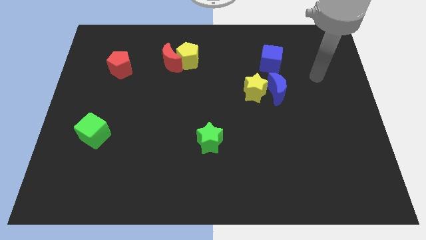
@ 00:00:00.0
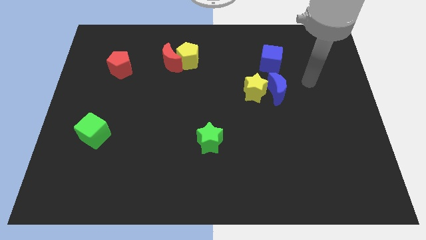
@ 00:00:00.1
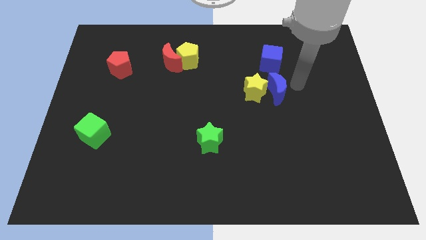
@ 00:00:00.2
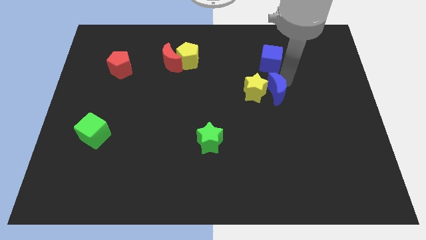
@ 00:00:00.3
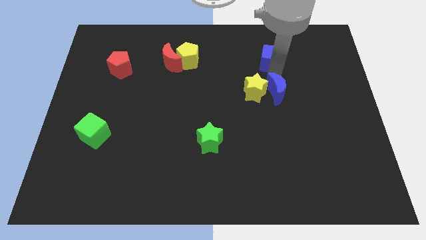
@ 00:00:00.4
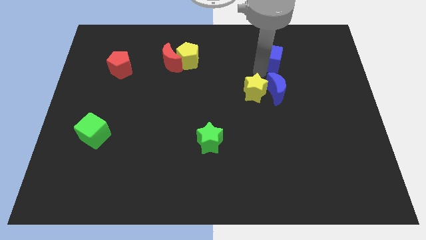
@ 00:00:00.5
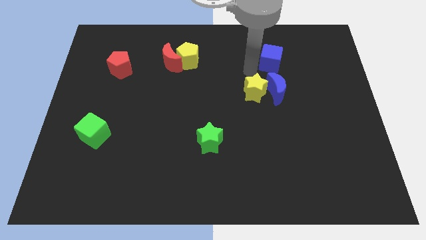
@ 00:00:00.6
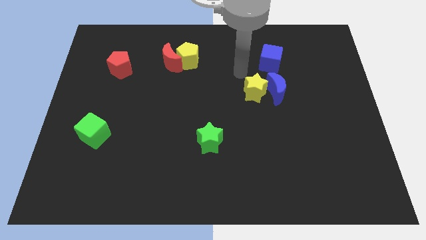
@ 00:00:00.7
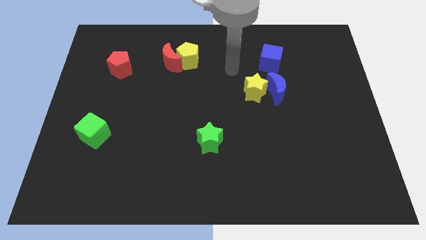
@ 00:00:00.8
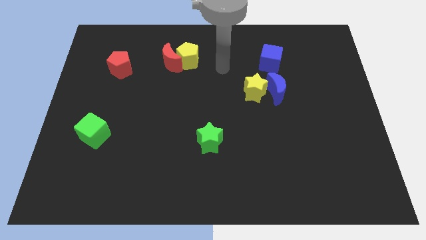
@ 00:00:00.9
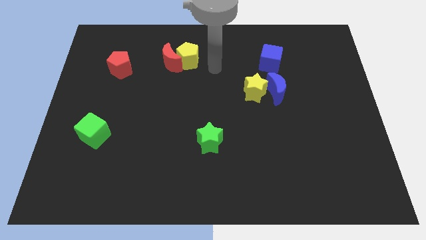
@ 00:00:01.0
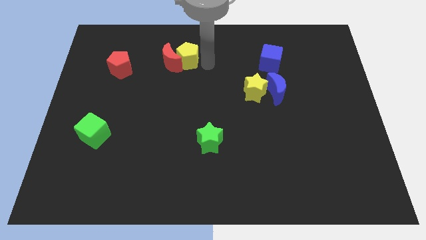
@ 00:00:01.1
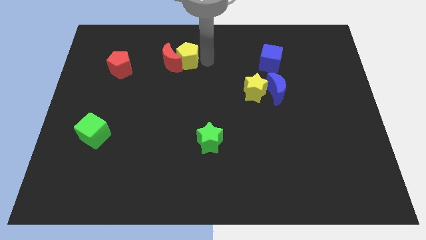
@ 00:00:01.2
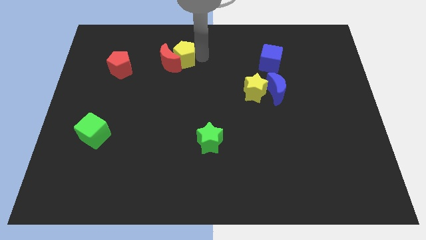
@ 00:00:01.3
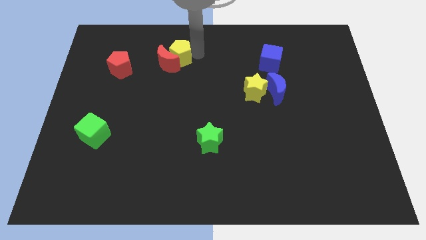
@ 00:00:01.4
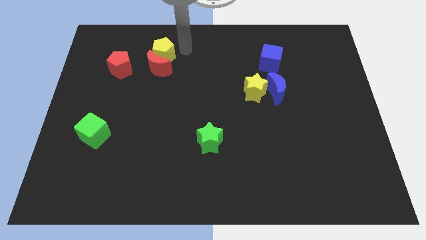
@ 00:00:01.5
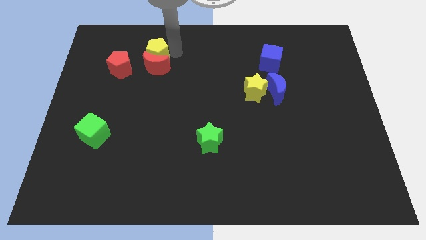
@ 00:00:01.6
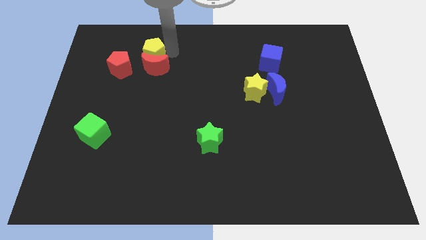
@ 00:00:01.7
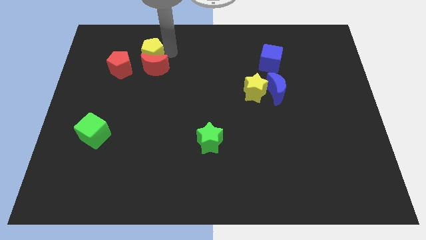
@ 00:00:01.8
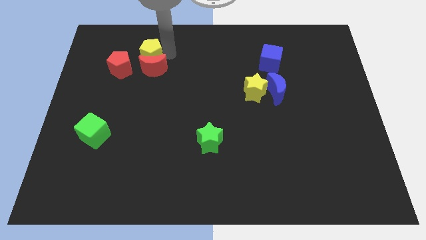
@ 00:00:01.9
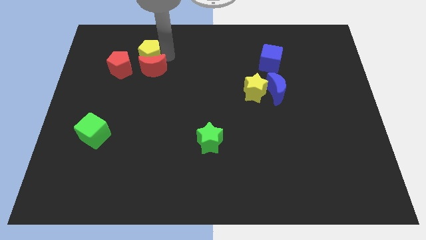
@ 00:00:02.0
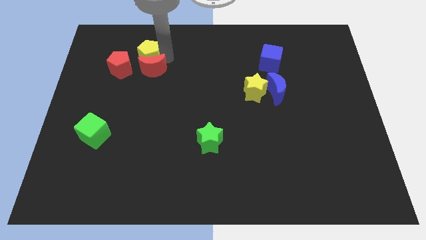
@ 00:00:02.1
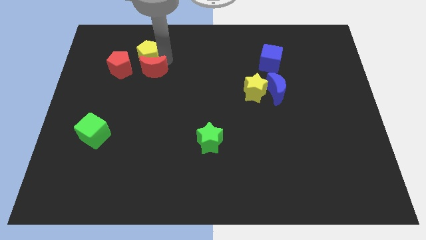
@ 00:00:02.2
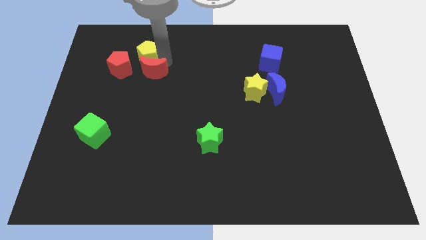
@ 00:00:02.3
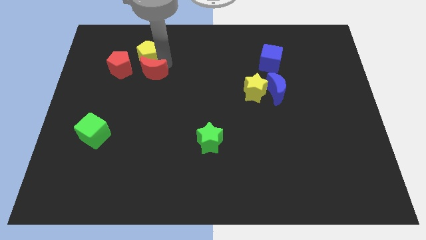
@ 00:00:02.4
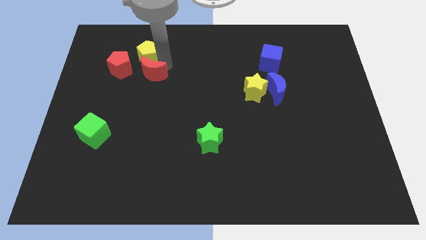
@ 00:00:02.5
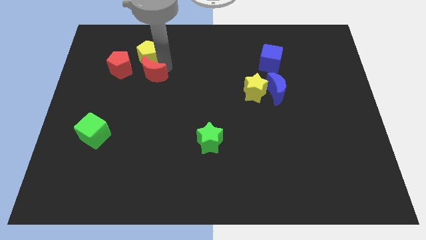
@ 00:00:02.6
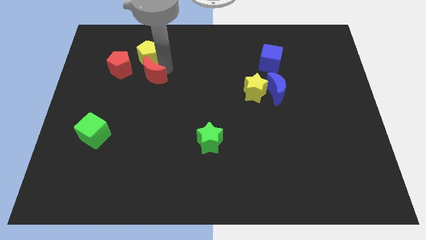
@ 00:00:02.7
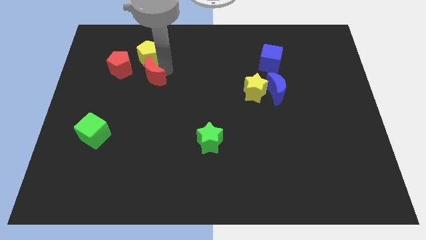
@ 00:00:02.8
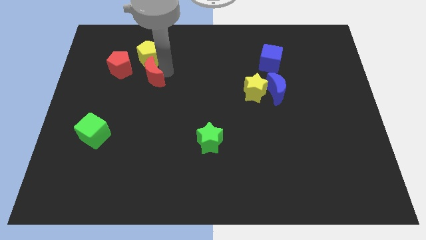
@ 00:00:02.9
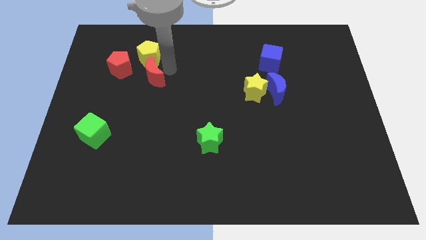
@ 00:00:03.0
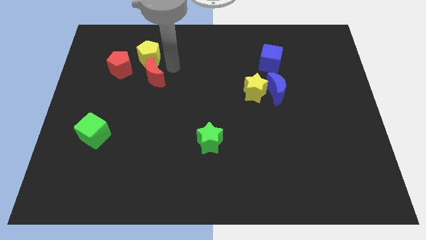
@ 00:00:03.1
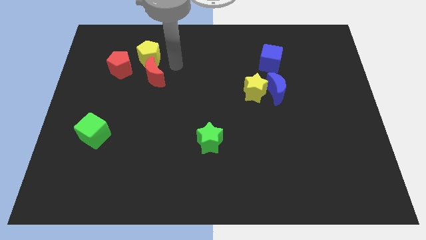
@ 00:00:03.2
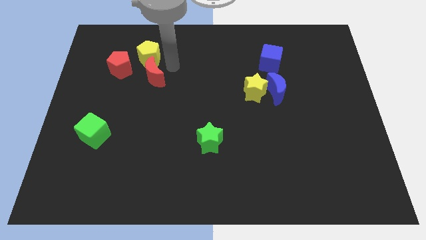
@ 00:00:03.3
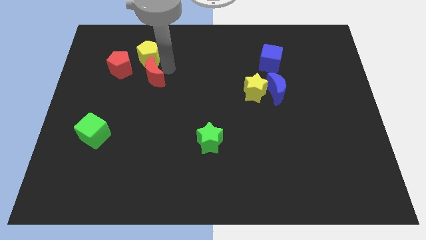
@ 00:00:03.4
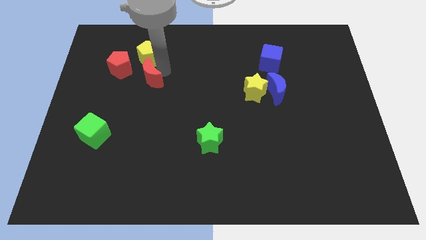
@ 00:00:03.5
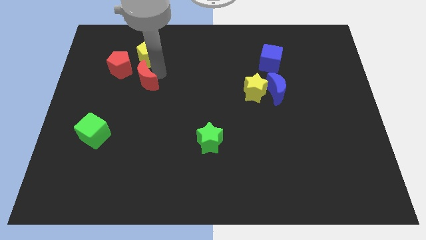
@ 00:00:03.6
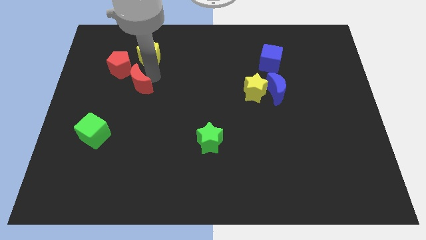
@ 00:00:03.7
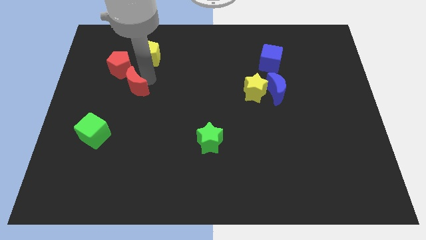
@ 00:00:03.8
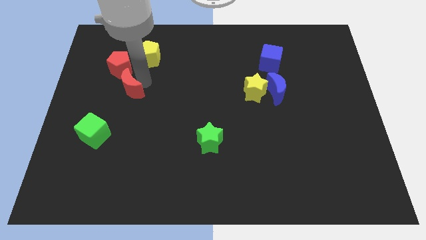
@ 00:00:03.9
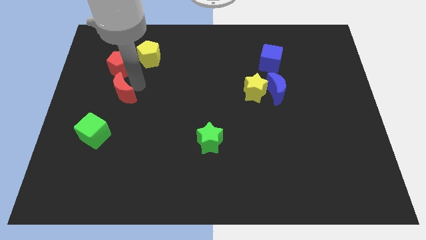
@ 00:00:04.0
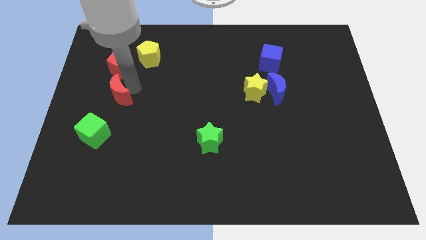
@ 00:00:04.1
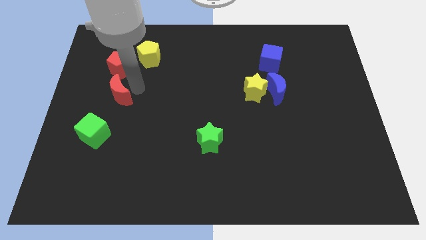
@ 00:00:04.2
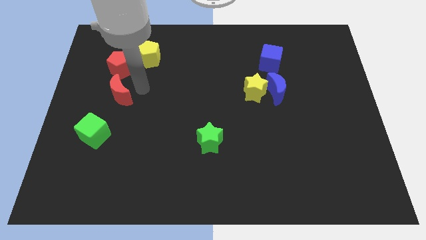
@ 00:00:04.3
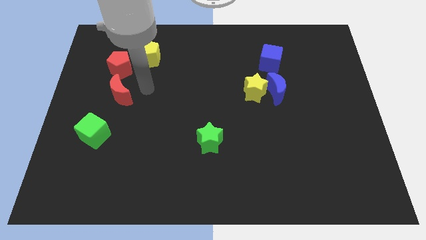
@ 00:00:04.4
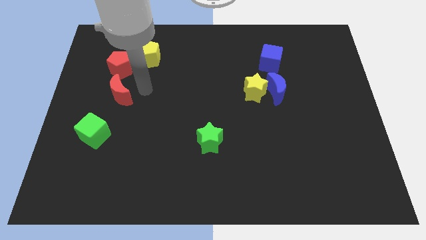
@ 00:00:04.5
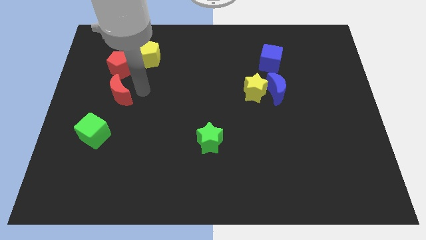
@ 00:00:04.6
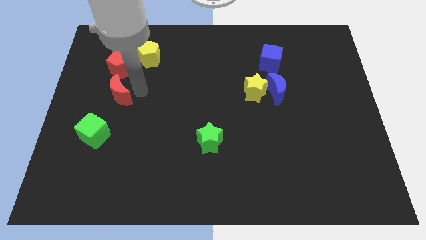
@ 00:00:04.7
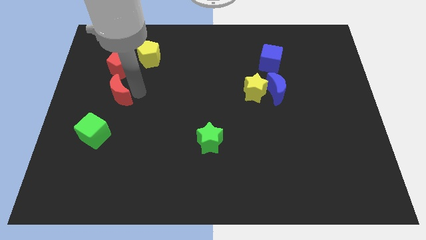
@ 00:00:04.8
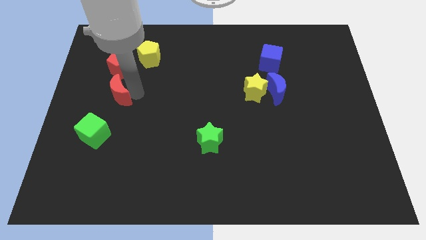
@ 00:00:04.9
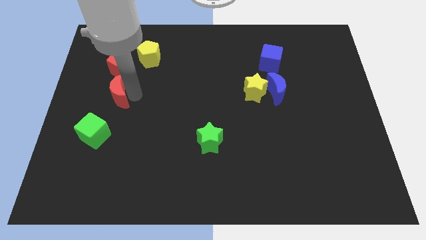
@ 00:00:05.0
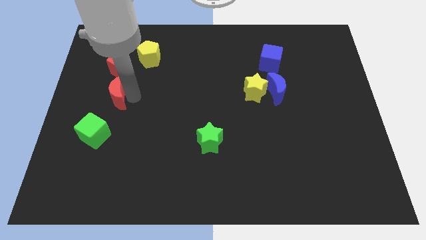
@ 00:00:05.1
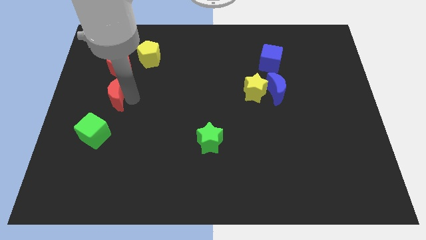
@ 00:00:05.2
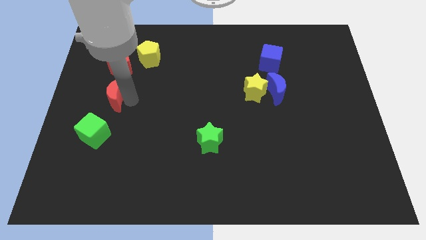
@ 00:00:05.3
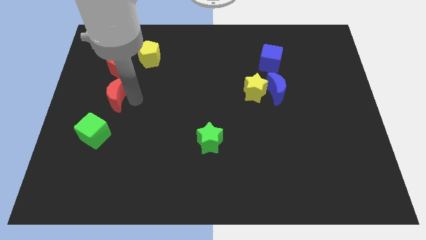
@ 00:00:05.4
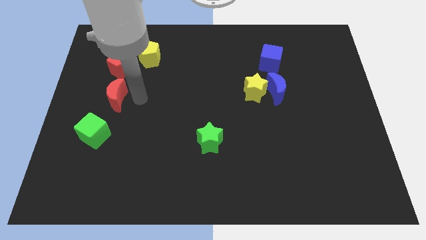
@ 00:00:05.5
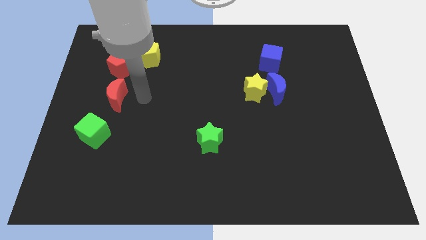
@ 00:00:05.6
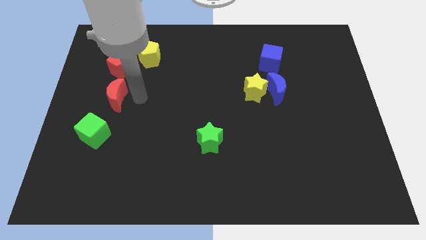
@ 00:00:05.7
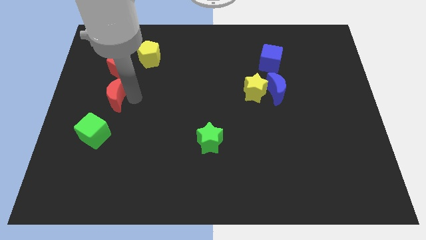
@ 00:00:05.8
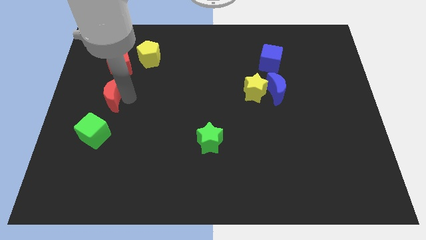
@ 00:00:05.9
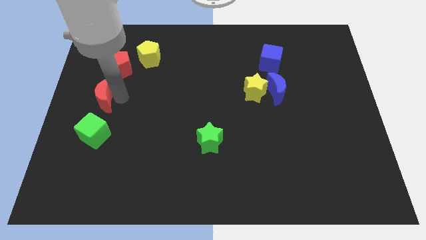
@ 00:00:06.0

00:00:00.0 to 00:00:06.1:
push the red moon to the left side of the board

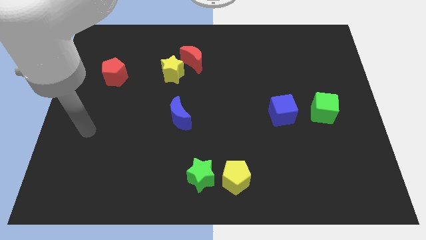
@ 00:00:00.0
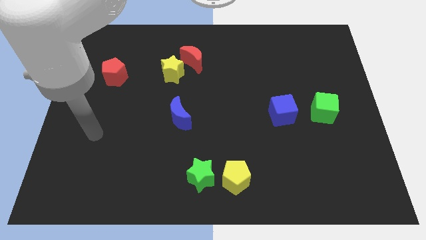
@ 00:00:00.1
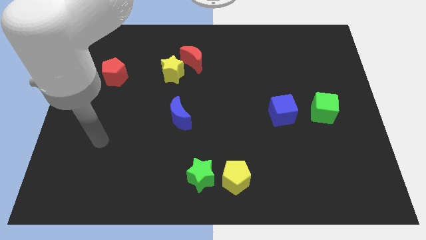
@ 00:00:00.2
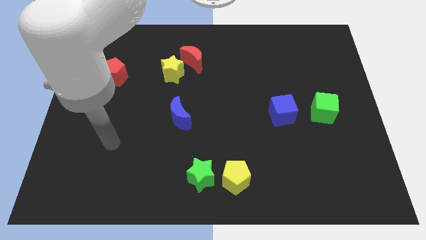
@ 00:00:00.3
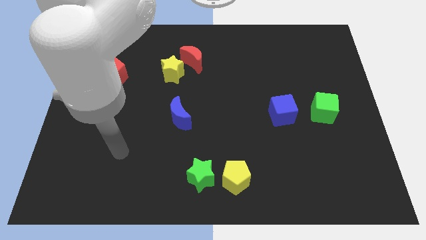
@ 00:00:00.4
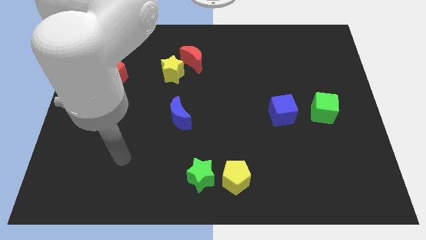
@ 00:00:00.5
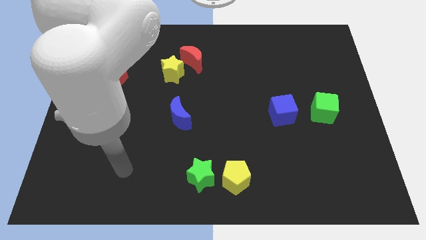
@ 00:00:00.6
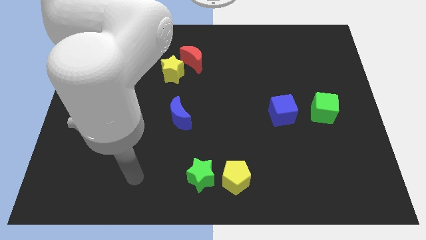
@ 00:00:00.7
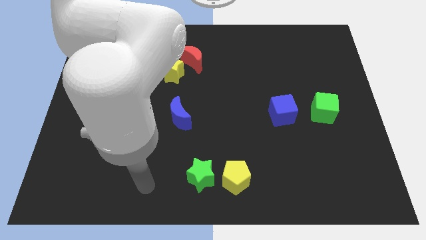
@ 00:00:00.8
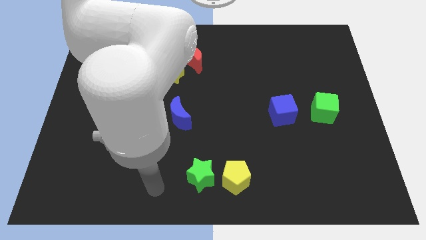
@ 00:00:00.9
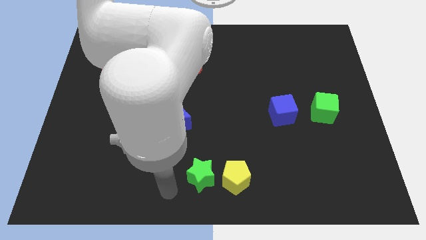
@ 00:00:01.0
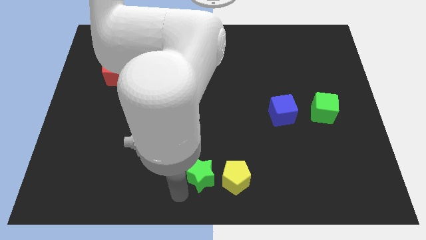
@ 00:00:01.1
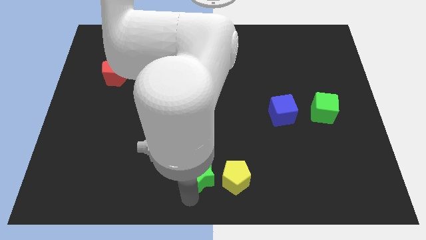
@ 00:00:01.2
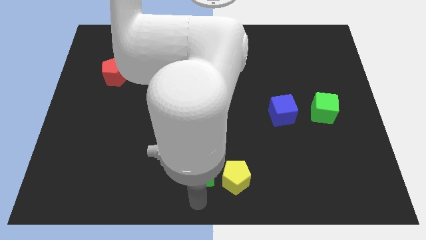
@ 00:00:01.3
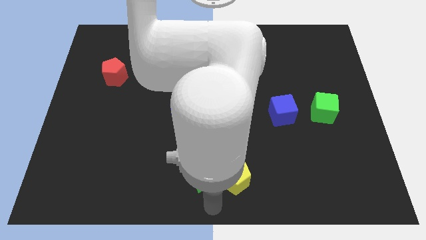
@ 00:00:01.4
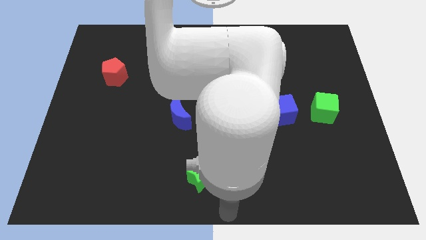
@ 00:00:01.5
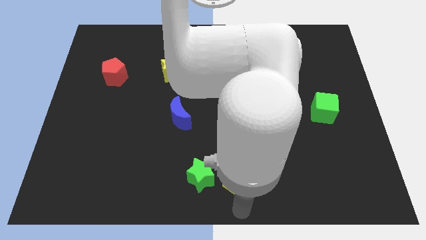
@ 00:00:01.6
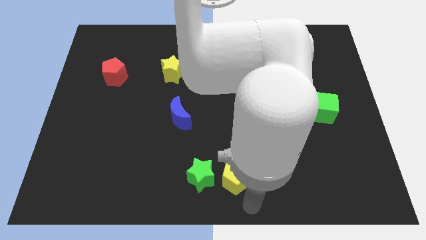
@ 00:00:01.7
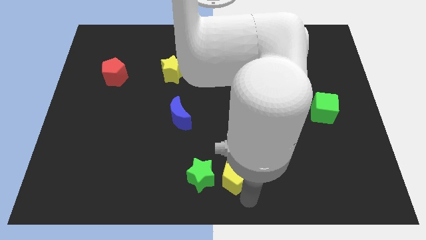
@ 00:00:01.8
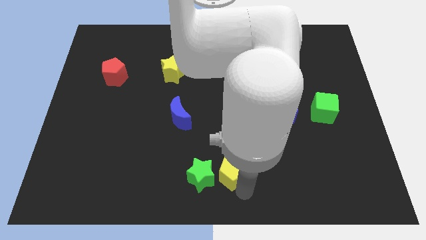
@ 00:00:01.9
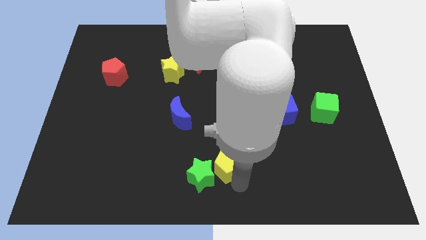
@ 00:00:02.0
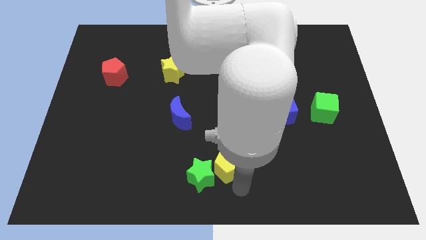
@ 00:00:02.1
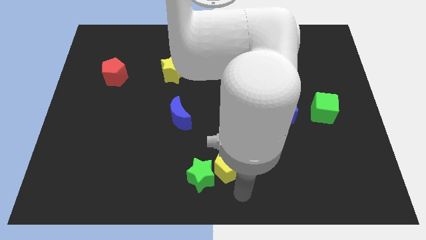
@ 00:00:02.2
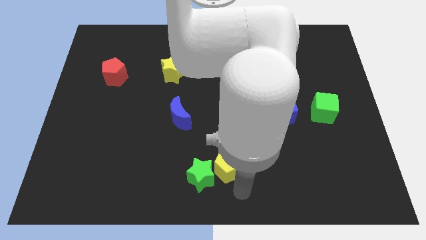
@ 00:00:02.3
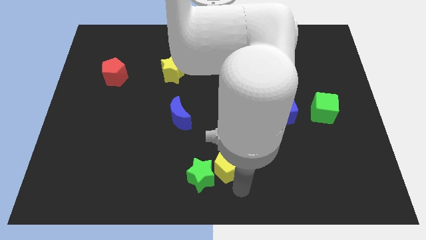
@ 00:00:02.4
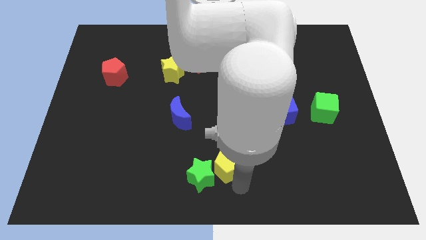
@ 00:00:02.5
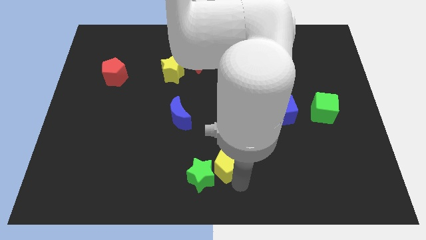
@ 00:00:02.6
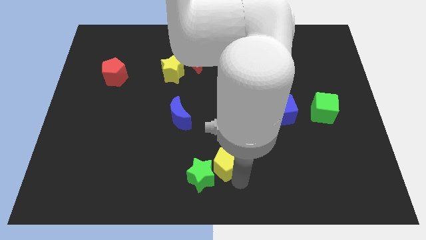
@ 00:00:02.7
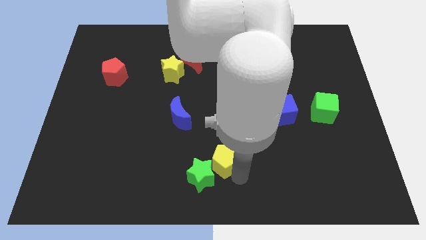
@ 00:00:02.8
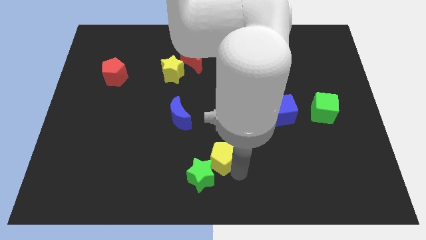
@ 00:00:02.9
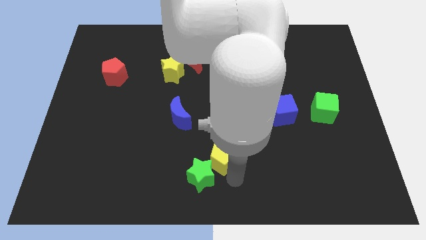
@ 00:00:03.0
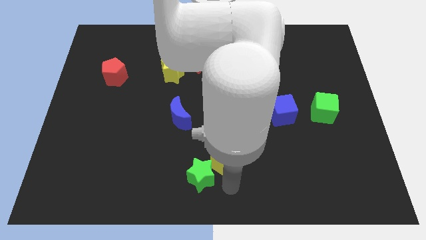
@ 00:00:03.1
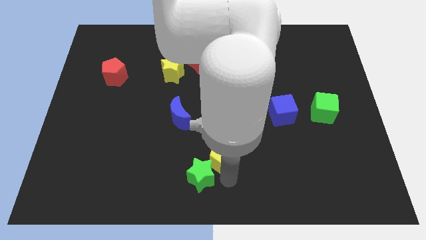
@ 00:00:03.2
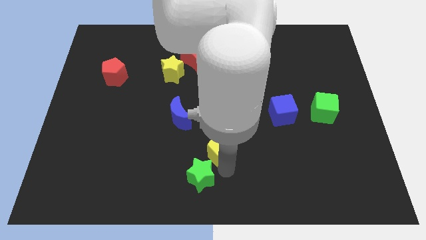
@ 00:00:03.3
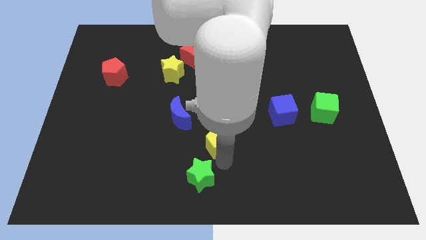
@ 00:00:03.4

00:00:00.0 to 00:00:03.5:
put the yellow pentagon to the middle of the board
